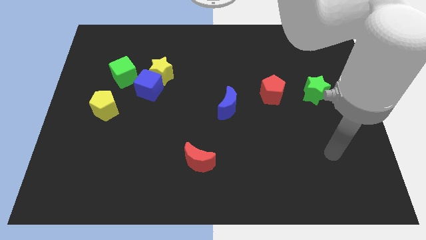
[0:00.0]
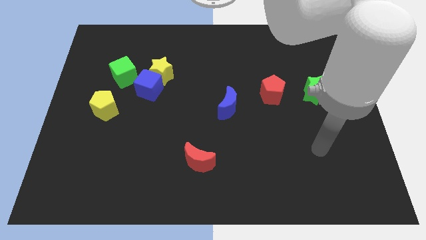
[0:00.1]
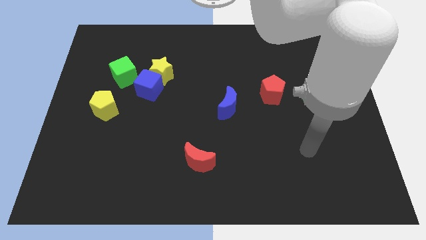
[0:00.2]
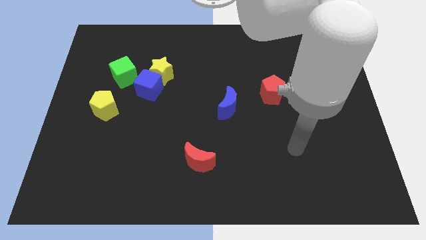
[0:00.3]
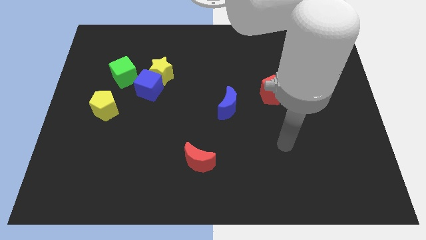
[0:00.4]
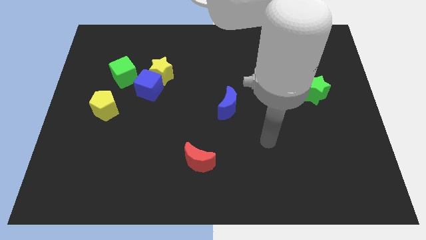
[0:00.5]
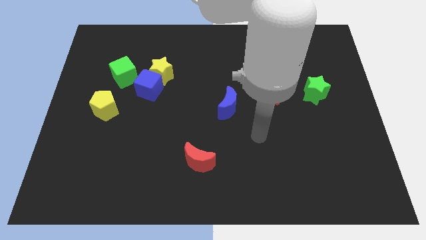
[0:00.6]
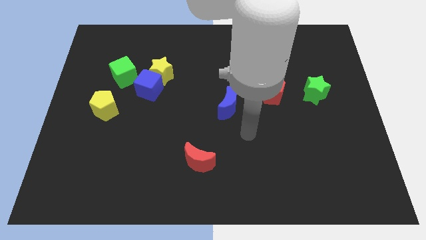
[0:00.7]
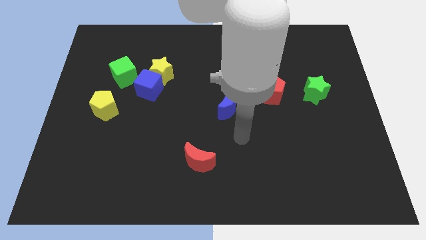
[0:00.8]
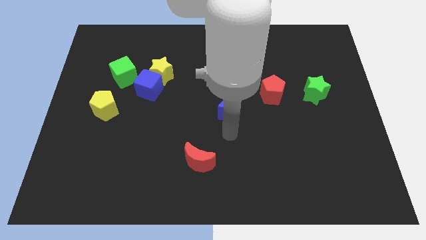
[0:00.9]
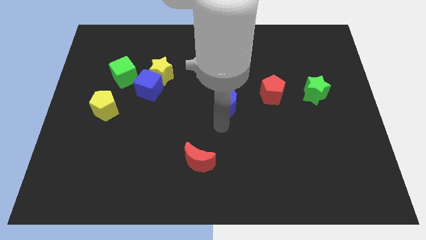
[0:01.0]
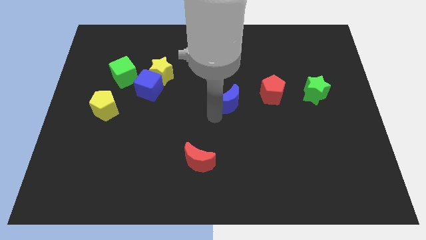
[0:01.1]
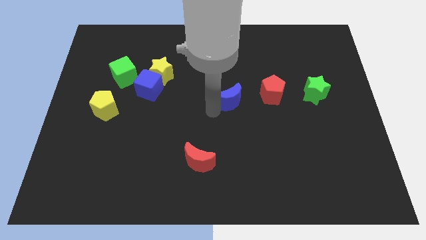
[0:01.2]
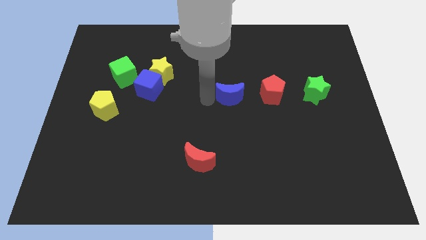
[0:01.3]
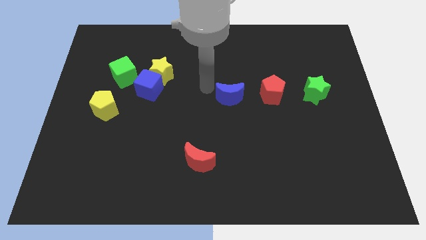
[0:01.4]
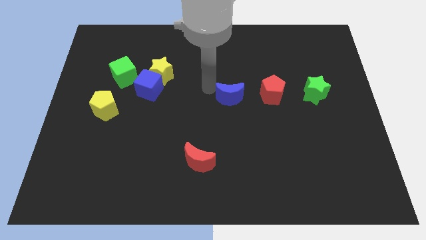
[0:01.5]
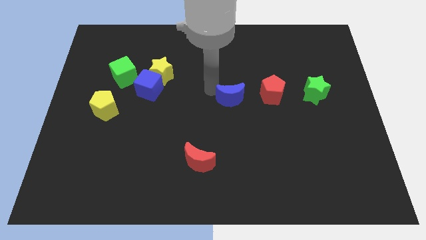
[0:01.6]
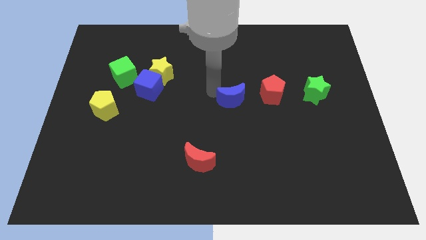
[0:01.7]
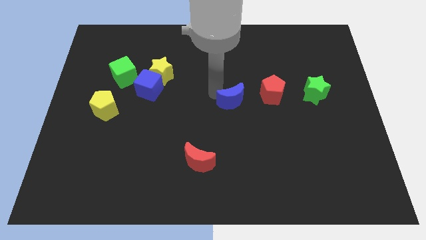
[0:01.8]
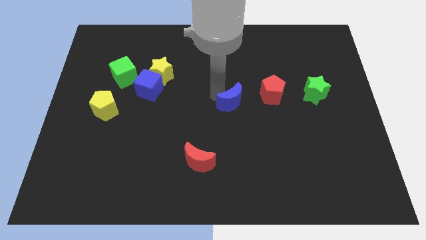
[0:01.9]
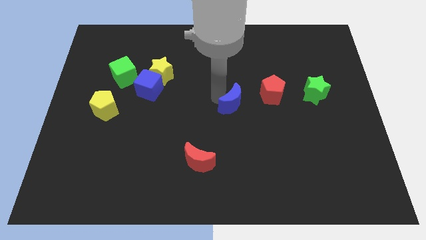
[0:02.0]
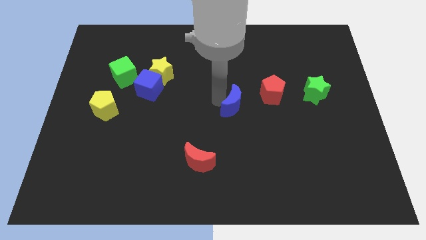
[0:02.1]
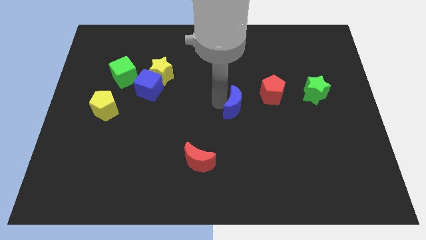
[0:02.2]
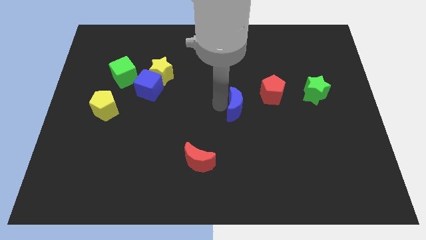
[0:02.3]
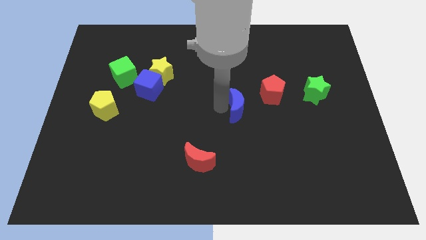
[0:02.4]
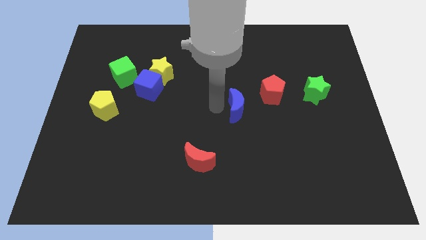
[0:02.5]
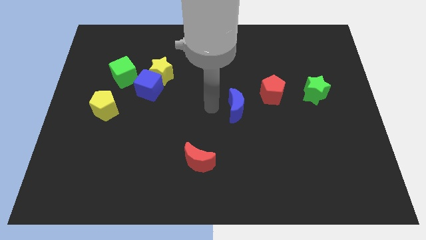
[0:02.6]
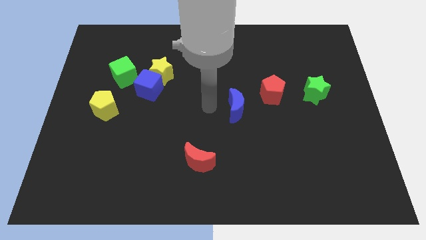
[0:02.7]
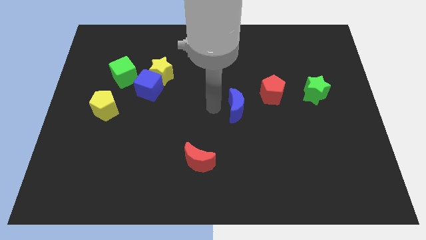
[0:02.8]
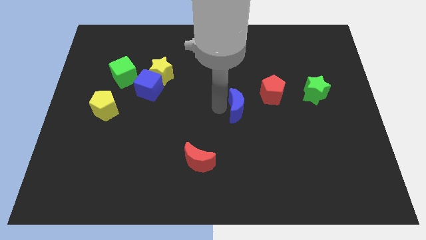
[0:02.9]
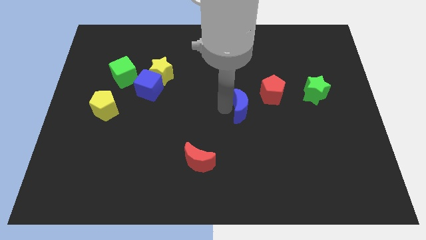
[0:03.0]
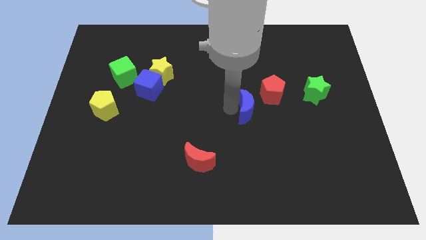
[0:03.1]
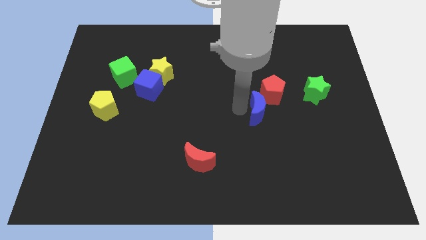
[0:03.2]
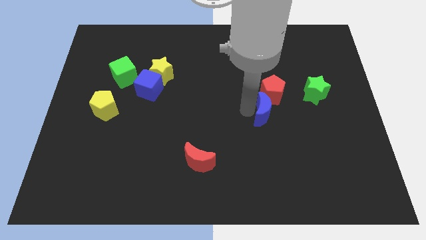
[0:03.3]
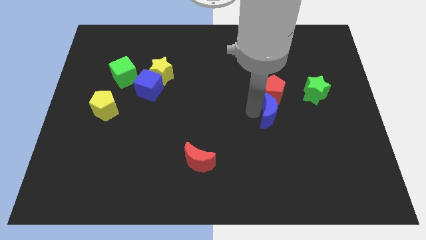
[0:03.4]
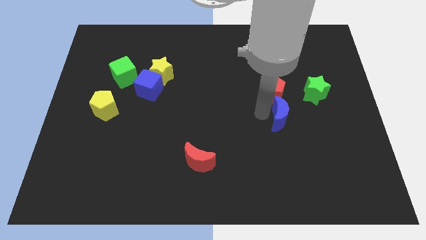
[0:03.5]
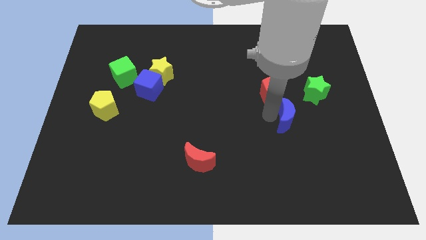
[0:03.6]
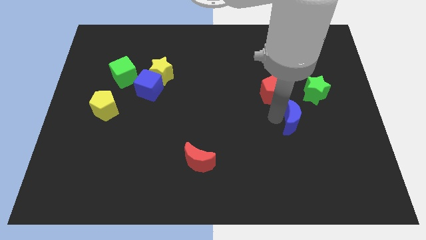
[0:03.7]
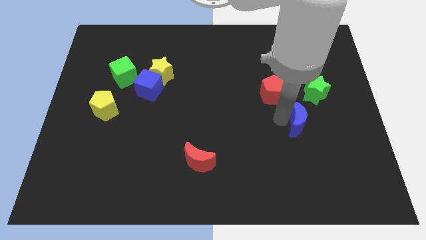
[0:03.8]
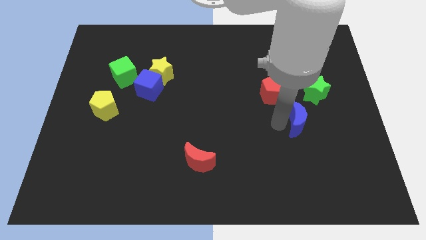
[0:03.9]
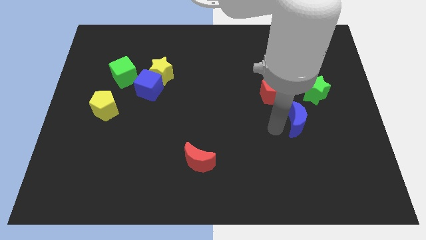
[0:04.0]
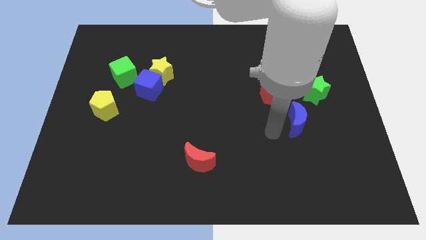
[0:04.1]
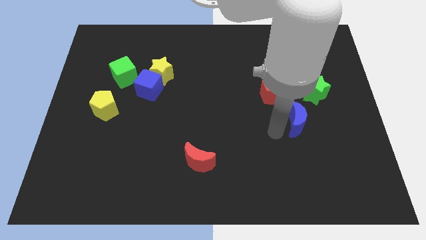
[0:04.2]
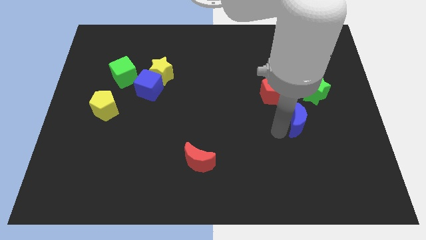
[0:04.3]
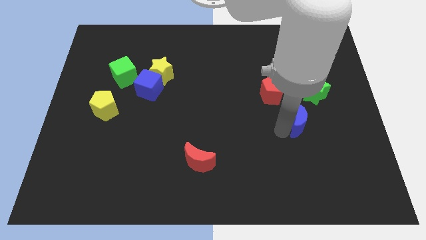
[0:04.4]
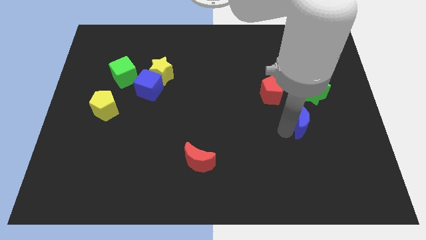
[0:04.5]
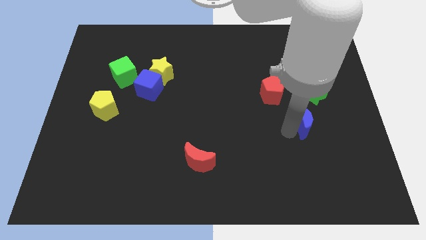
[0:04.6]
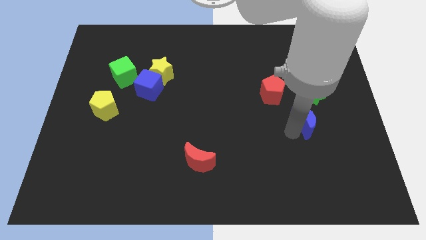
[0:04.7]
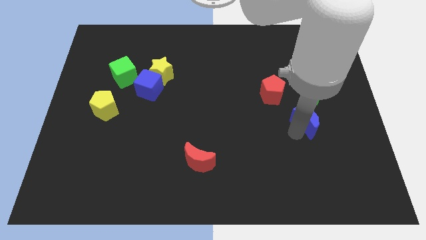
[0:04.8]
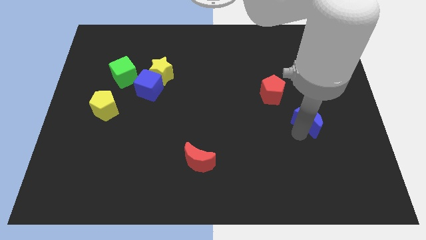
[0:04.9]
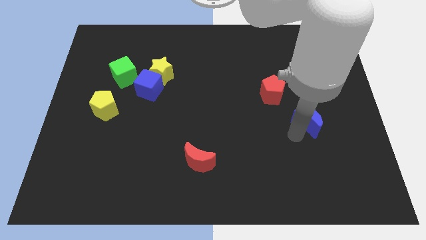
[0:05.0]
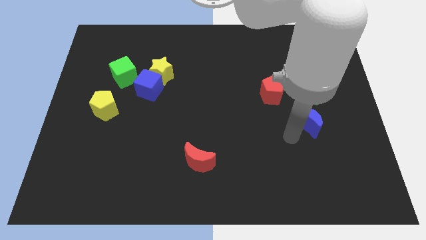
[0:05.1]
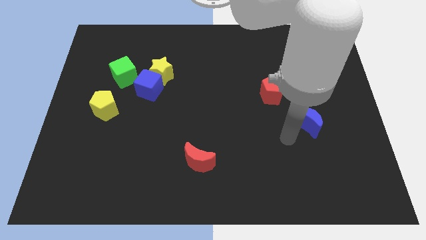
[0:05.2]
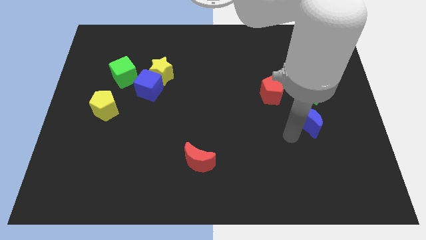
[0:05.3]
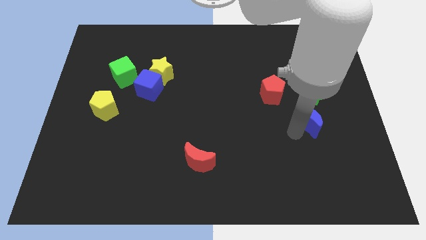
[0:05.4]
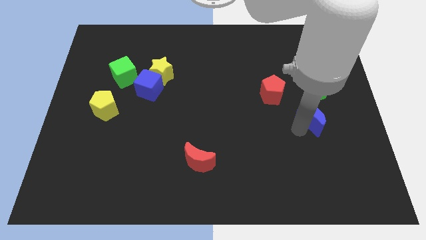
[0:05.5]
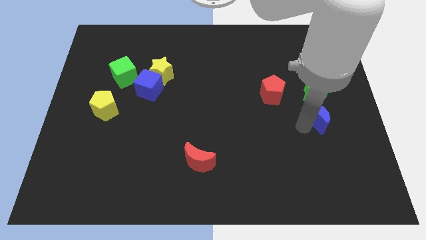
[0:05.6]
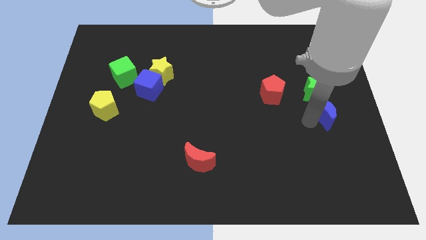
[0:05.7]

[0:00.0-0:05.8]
push the blue moon to the right side of the board

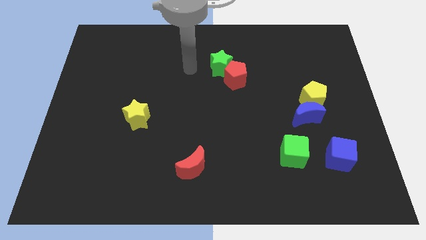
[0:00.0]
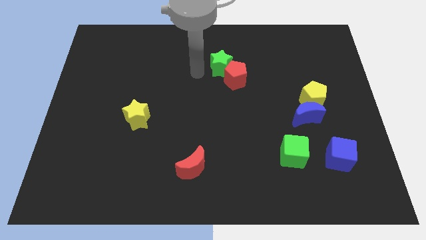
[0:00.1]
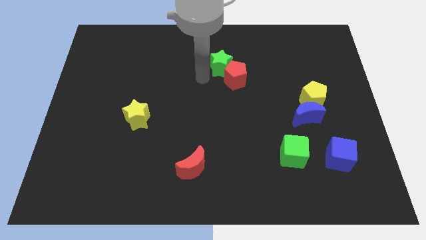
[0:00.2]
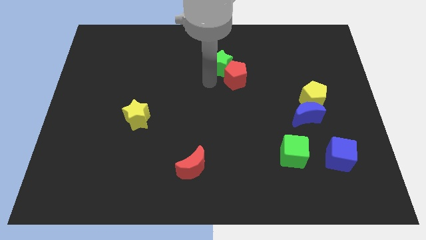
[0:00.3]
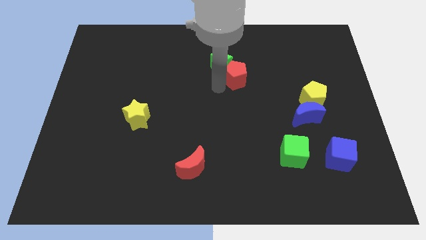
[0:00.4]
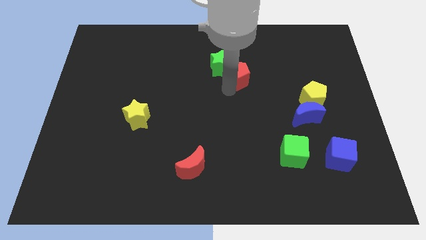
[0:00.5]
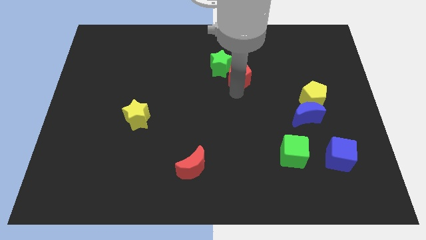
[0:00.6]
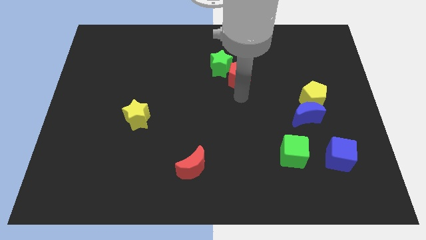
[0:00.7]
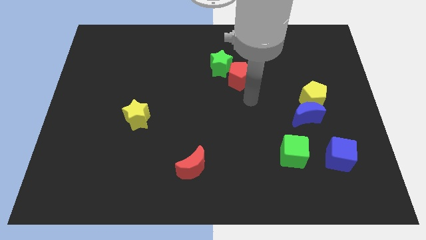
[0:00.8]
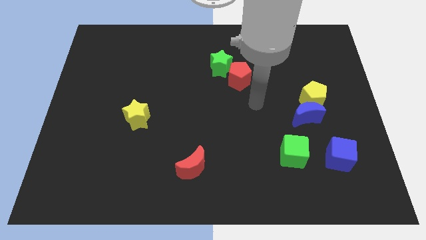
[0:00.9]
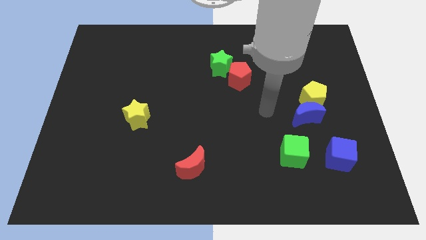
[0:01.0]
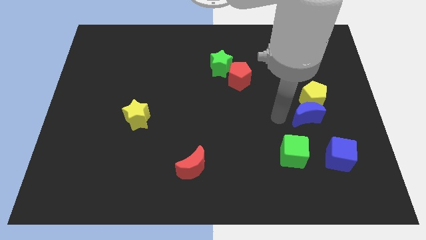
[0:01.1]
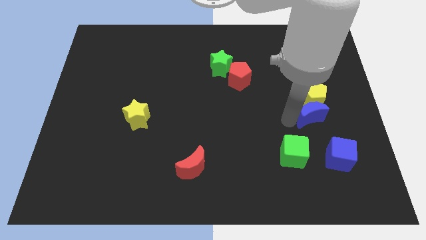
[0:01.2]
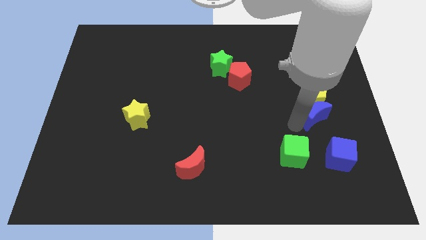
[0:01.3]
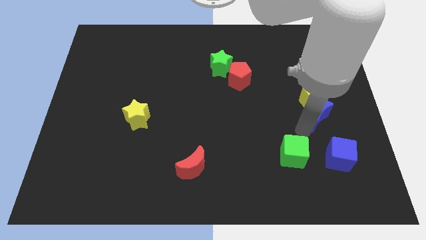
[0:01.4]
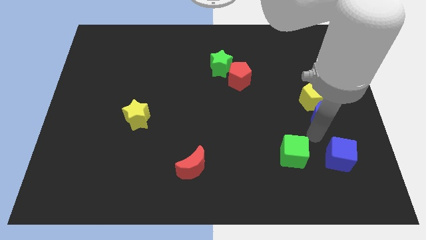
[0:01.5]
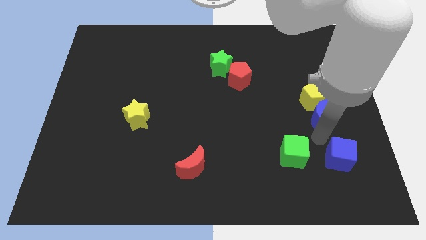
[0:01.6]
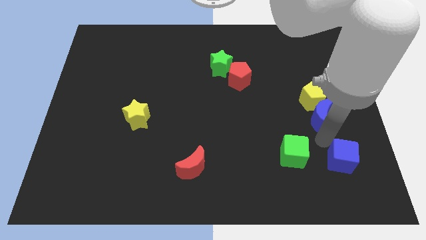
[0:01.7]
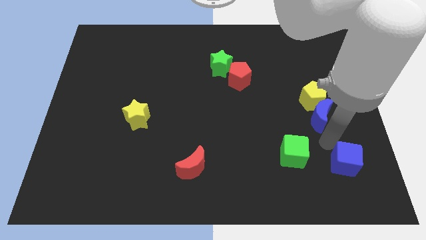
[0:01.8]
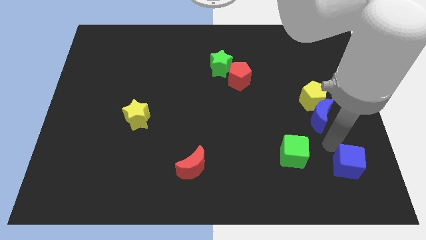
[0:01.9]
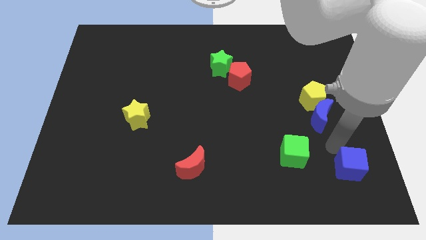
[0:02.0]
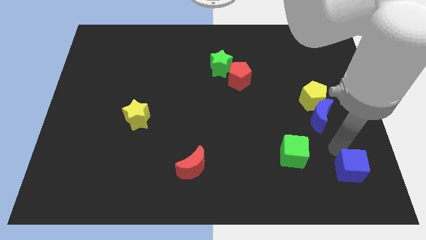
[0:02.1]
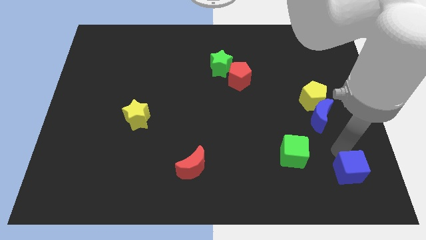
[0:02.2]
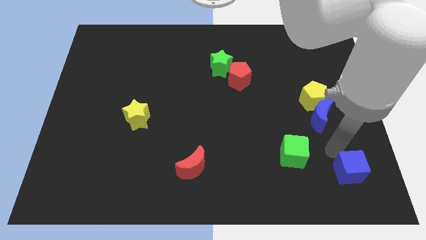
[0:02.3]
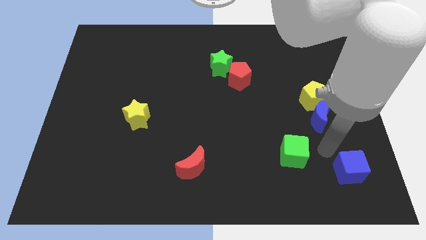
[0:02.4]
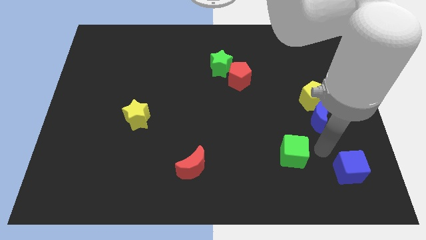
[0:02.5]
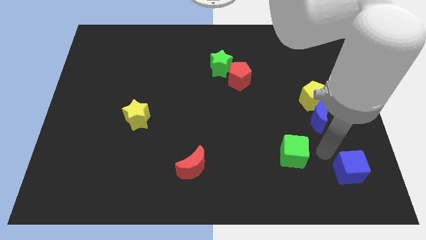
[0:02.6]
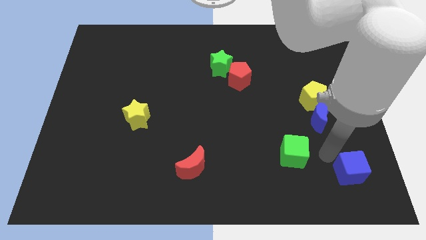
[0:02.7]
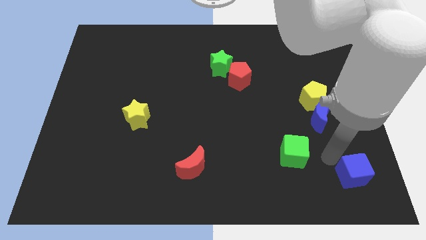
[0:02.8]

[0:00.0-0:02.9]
slide the blue cube to the bottom right of the board
